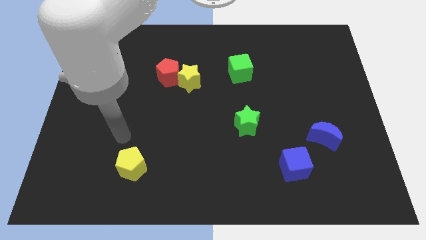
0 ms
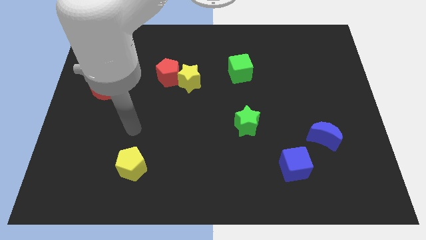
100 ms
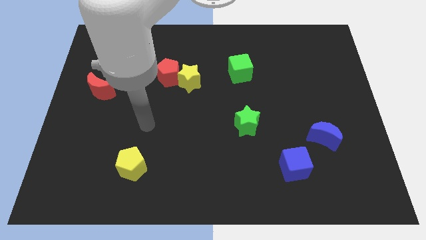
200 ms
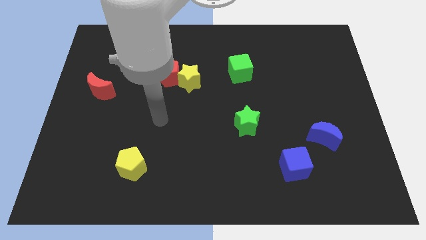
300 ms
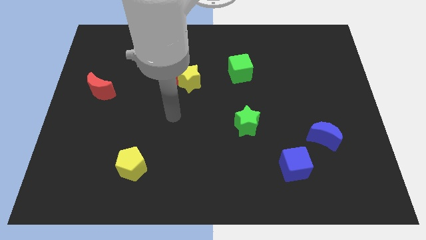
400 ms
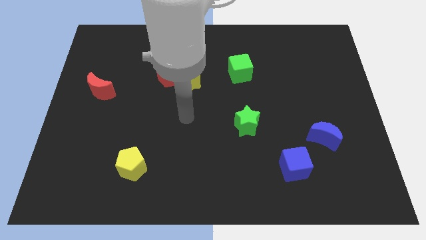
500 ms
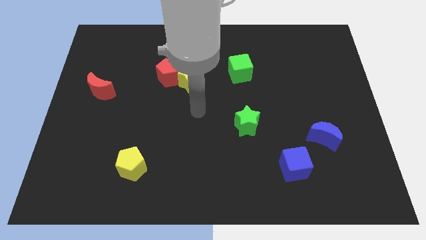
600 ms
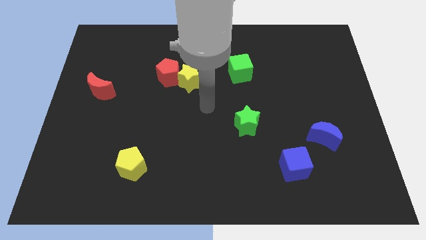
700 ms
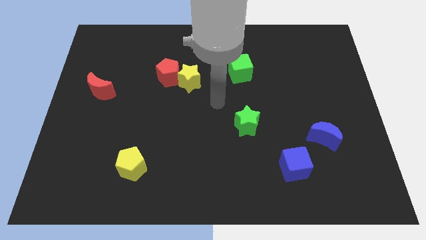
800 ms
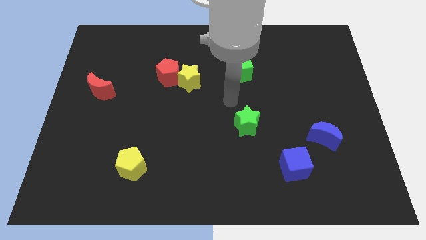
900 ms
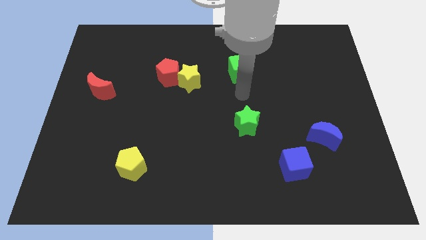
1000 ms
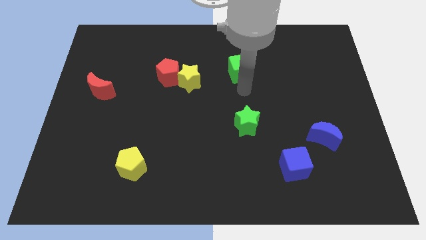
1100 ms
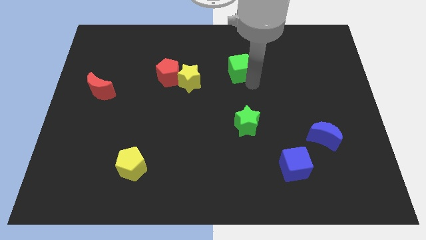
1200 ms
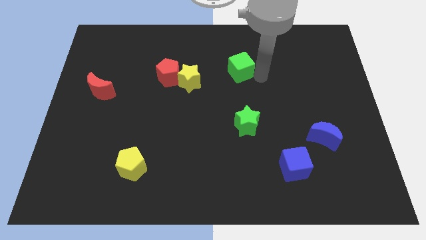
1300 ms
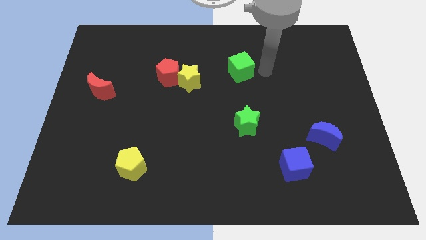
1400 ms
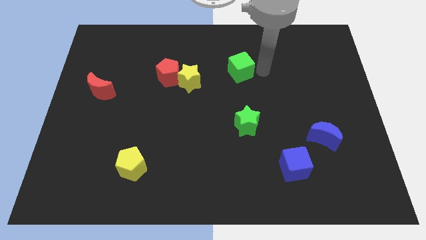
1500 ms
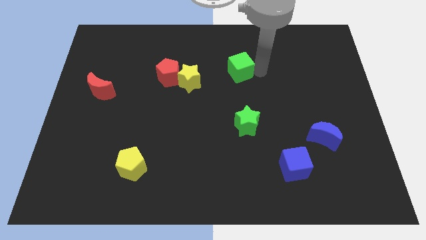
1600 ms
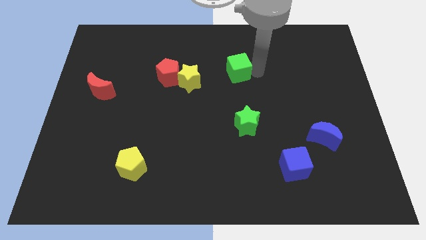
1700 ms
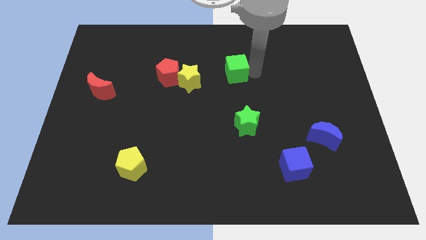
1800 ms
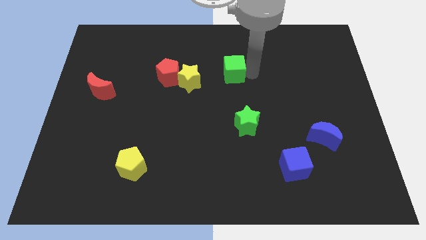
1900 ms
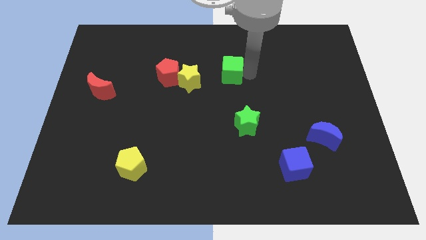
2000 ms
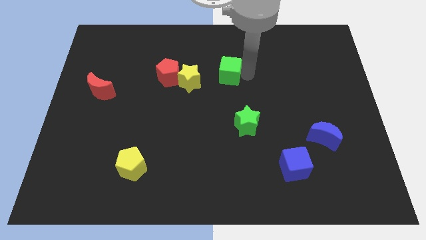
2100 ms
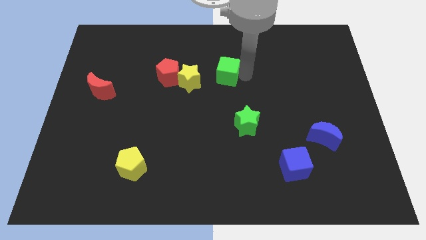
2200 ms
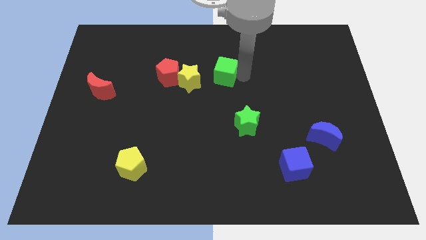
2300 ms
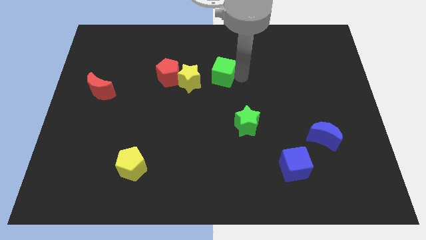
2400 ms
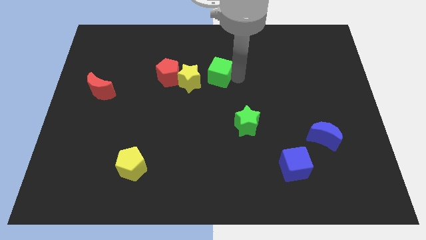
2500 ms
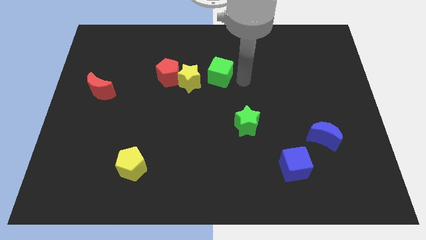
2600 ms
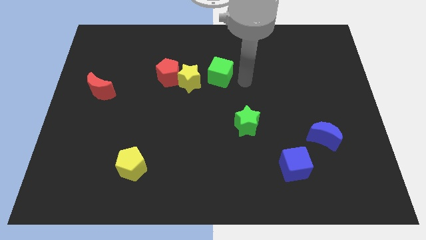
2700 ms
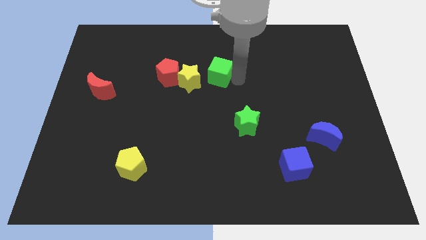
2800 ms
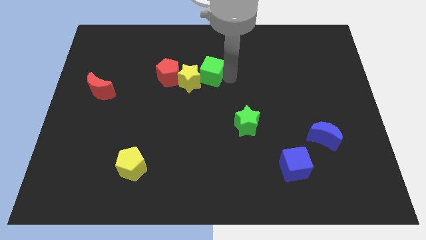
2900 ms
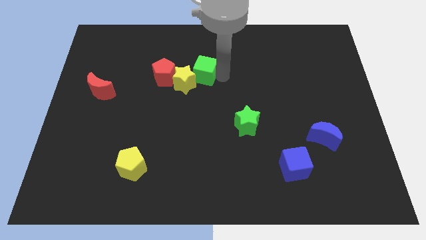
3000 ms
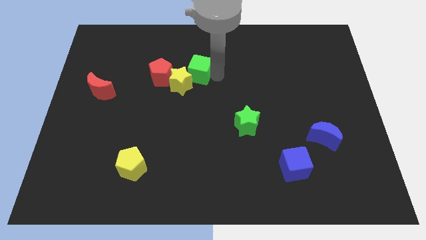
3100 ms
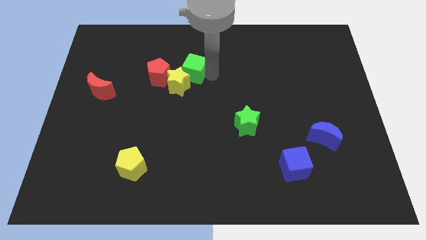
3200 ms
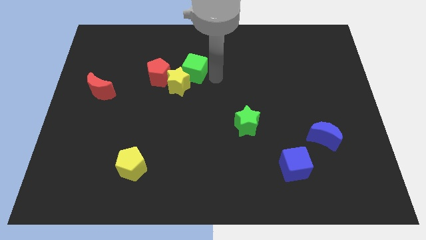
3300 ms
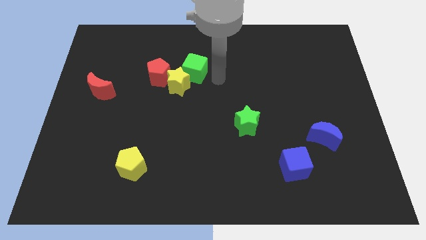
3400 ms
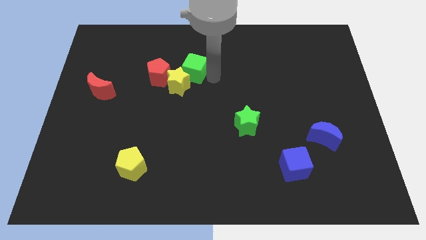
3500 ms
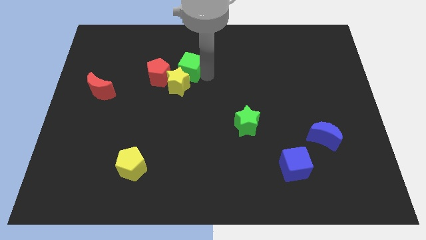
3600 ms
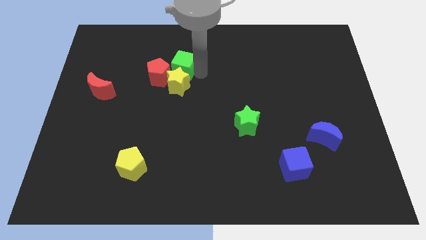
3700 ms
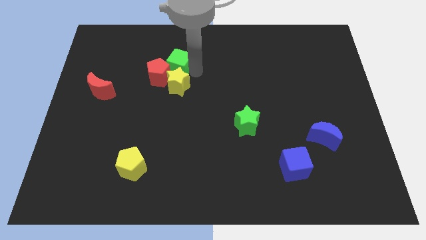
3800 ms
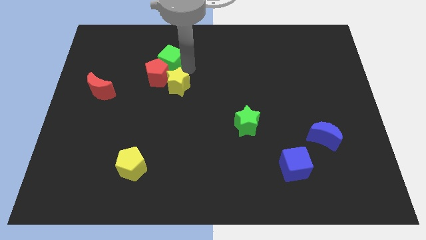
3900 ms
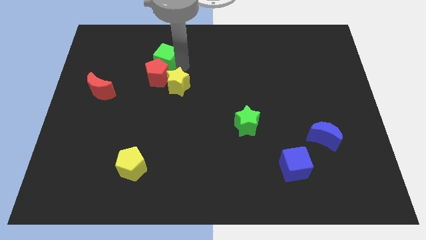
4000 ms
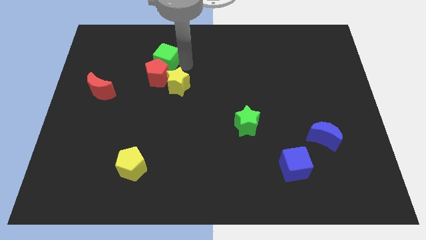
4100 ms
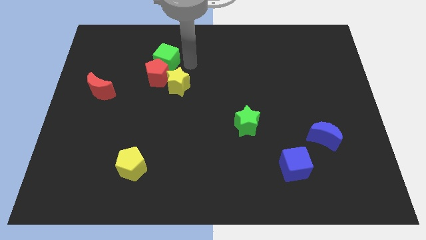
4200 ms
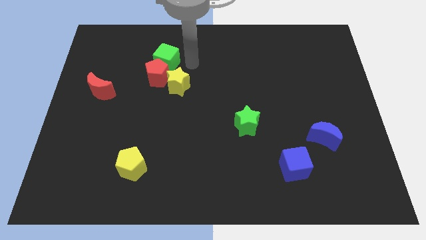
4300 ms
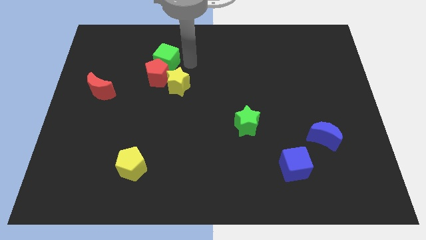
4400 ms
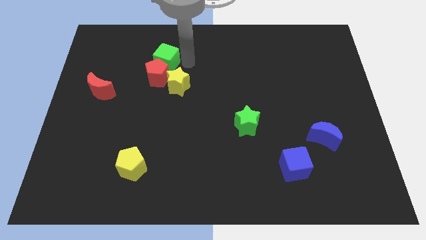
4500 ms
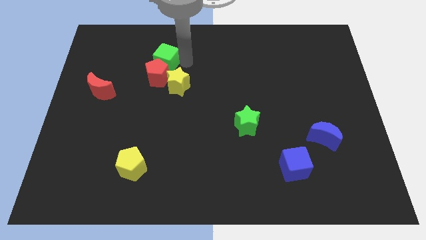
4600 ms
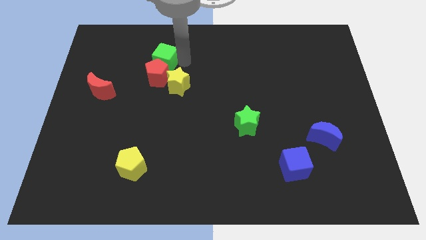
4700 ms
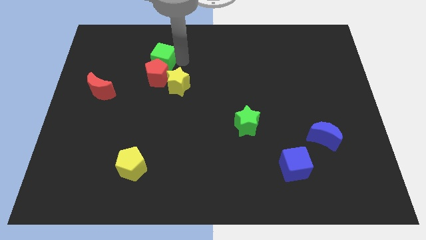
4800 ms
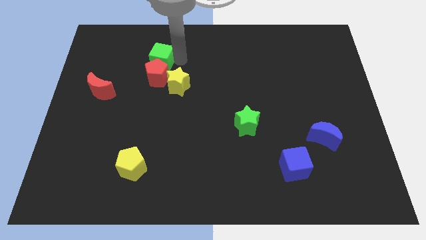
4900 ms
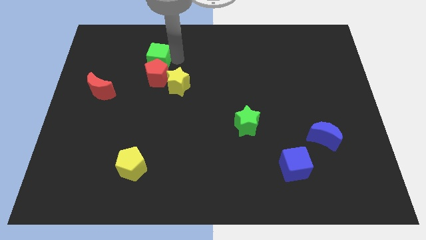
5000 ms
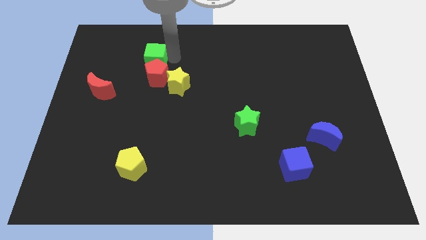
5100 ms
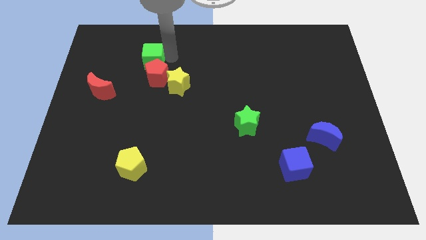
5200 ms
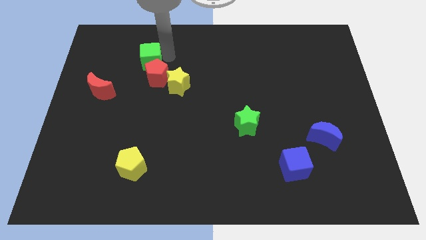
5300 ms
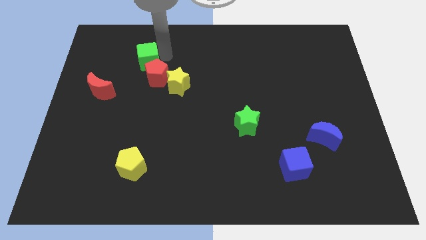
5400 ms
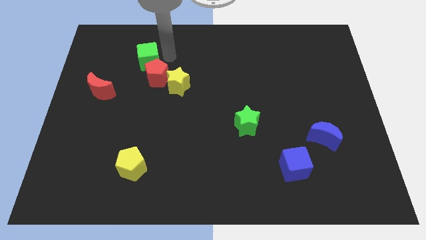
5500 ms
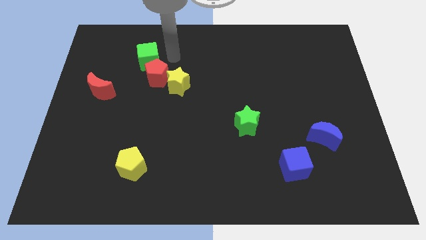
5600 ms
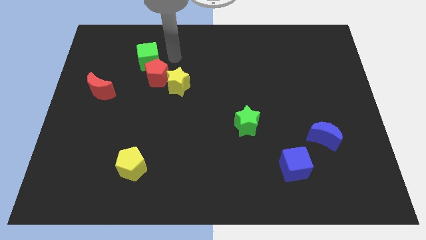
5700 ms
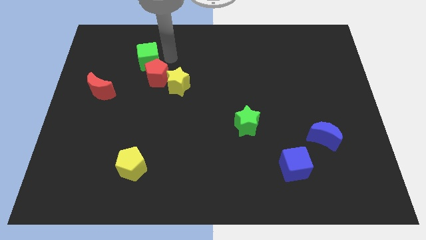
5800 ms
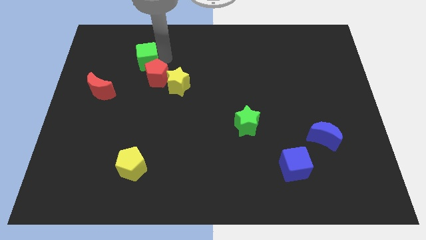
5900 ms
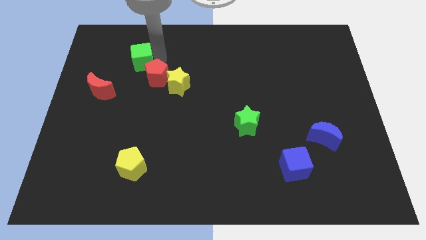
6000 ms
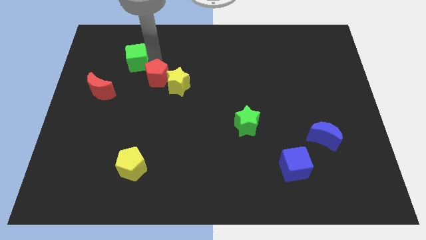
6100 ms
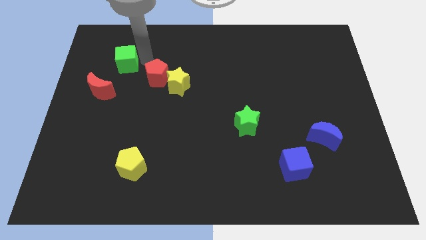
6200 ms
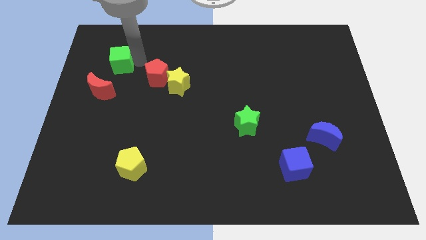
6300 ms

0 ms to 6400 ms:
move the green cube above the red moon

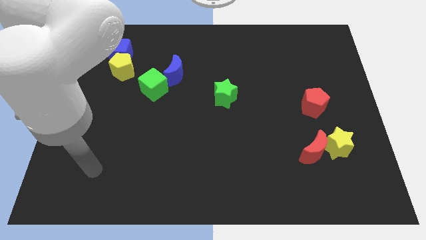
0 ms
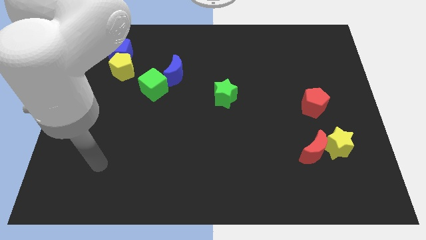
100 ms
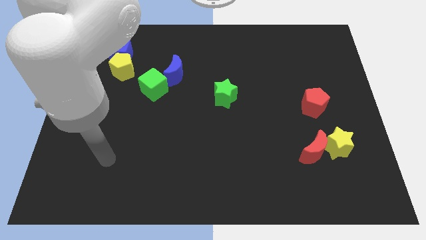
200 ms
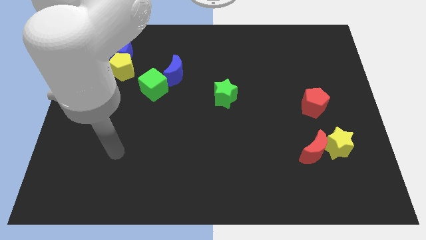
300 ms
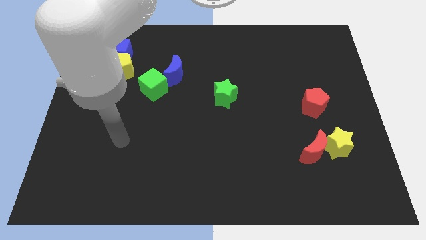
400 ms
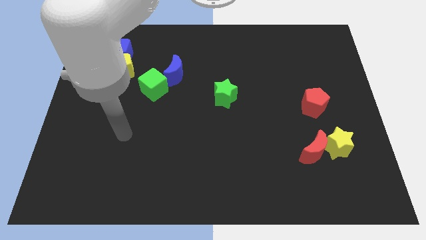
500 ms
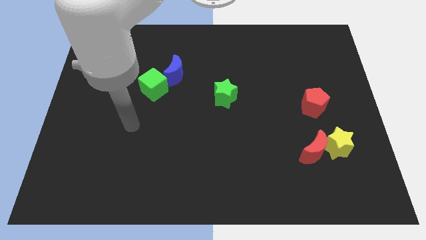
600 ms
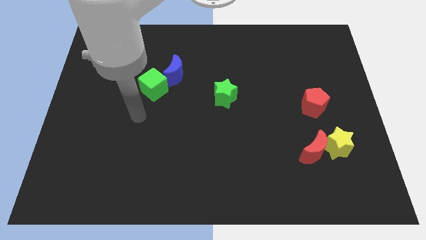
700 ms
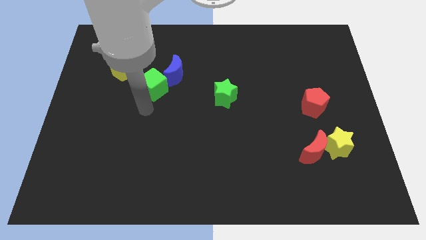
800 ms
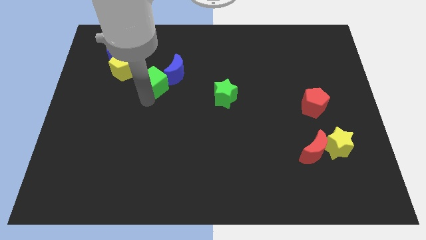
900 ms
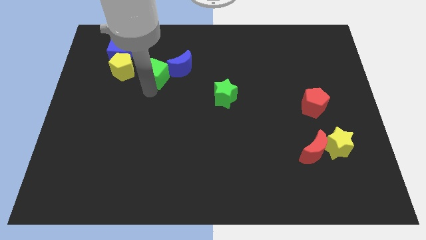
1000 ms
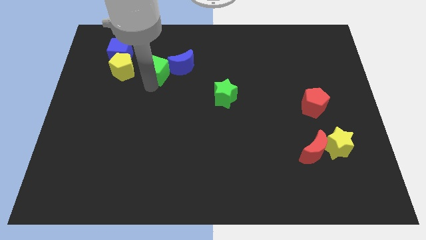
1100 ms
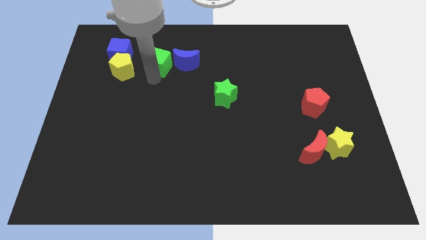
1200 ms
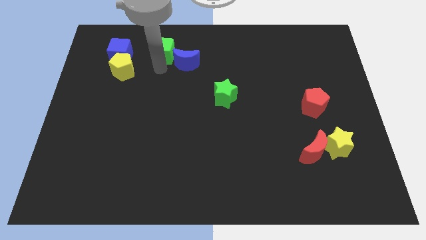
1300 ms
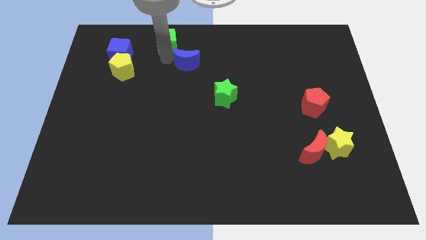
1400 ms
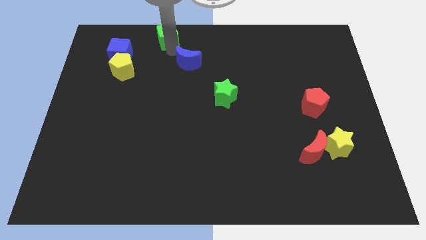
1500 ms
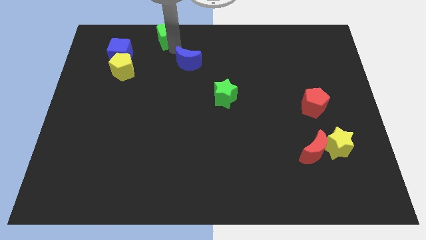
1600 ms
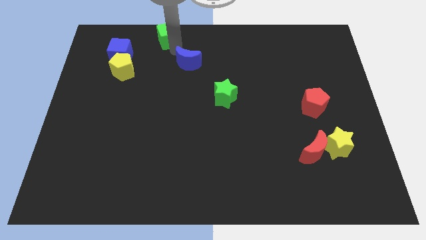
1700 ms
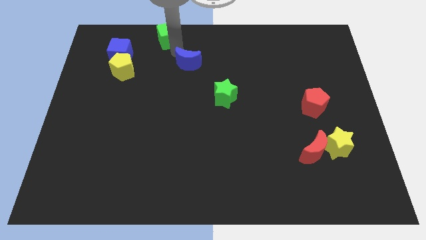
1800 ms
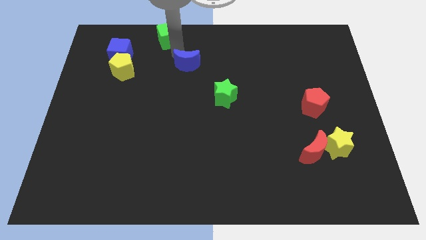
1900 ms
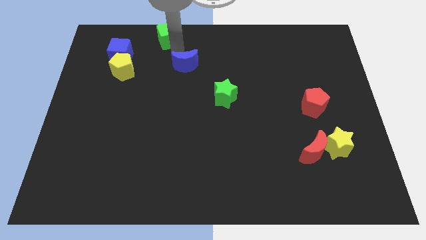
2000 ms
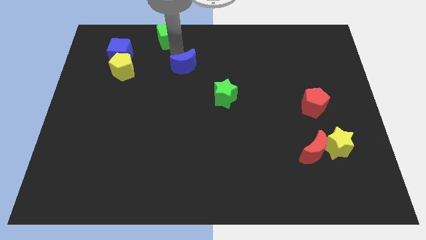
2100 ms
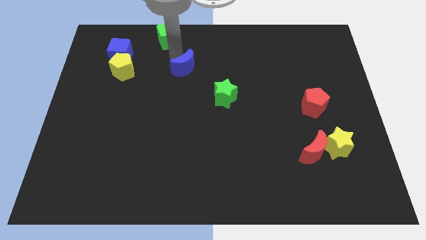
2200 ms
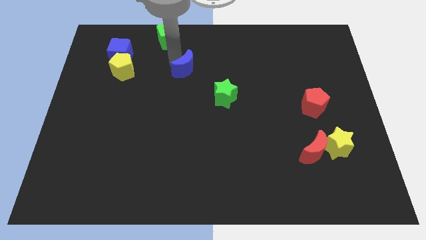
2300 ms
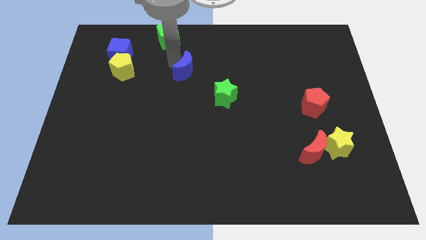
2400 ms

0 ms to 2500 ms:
slide the blue moon to the top left of the green star
